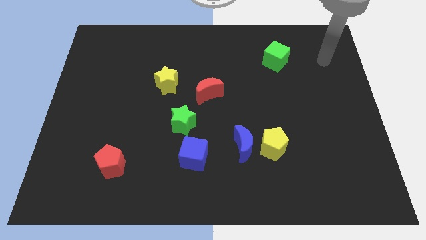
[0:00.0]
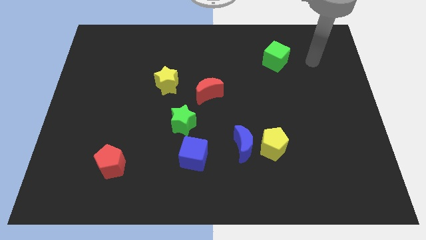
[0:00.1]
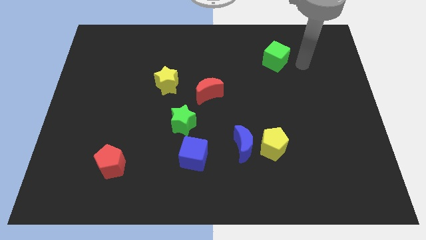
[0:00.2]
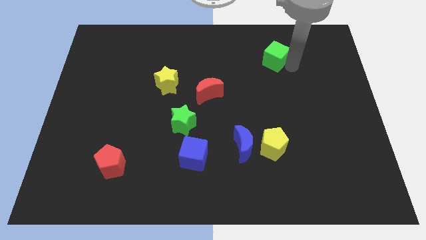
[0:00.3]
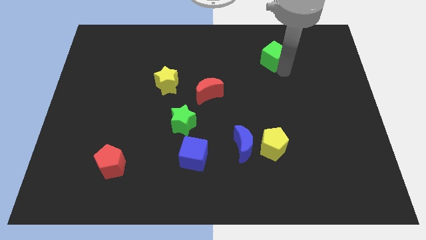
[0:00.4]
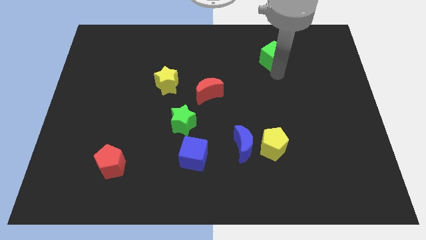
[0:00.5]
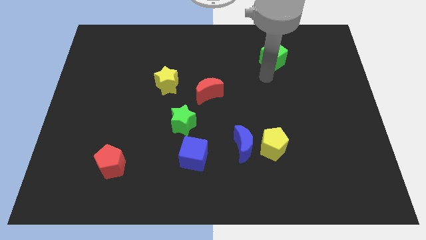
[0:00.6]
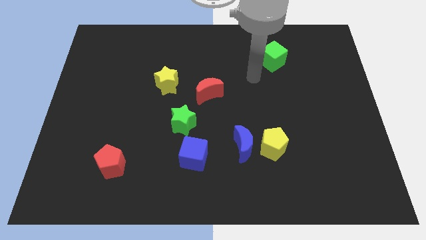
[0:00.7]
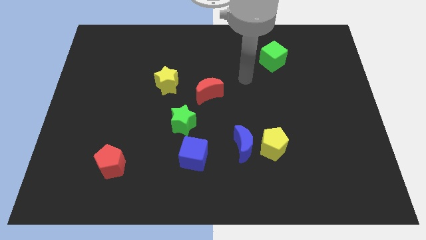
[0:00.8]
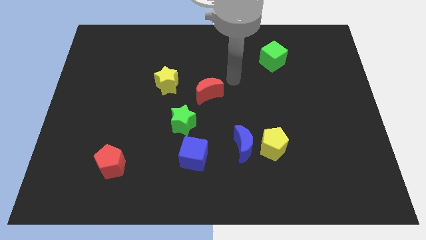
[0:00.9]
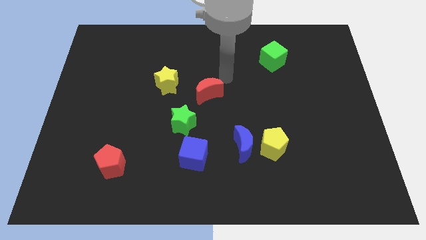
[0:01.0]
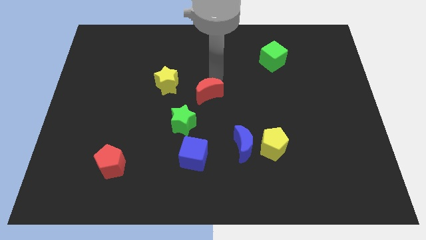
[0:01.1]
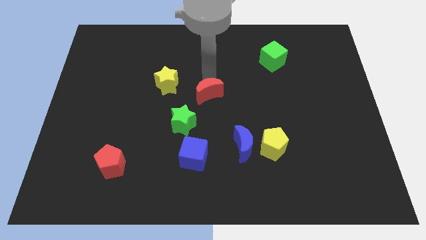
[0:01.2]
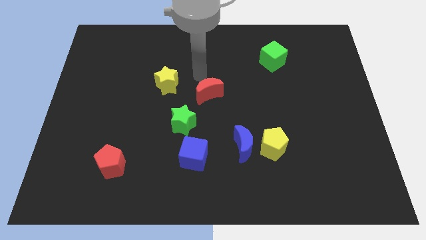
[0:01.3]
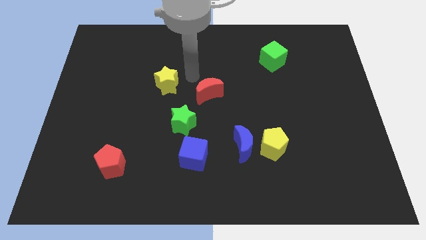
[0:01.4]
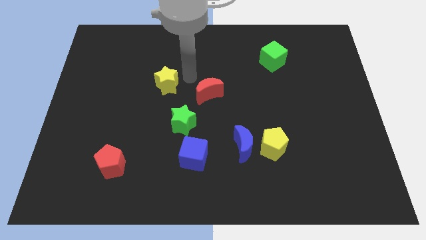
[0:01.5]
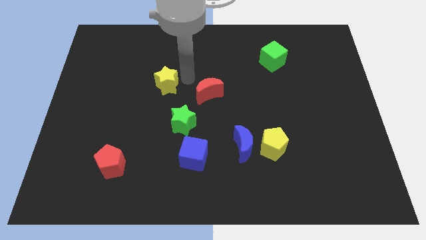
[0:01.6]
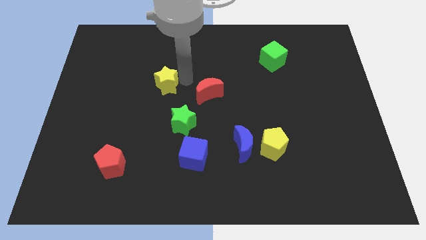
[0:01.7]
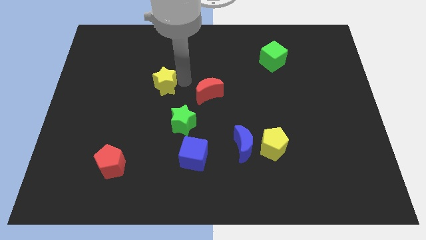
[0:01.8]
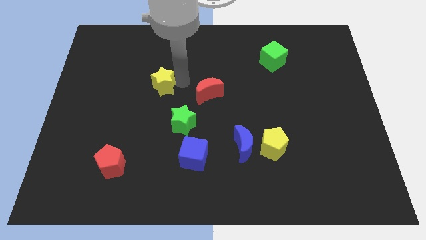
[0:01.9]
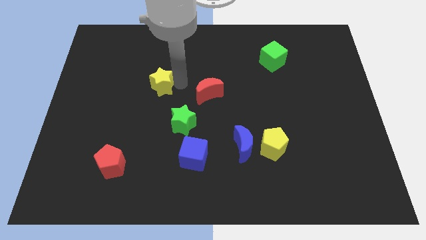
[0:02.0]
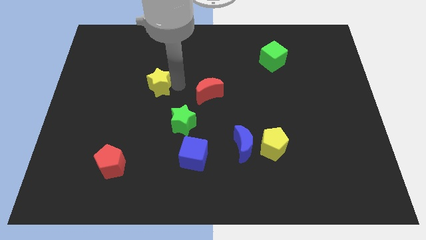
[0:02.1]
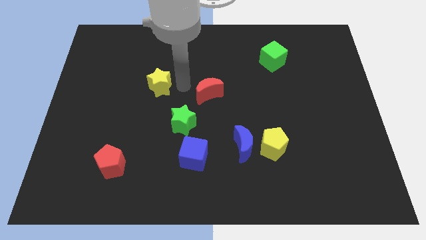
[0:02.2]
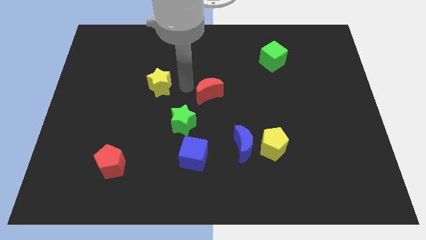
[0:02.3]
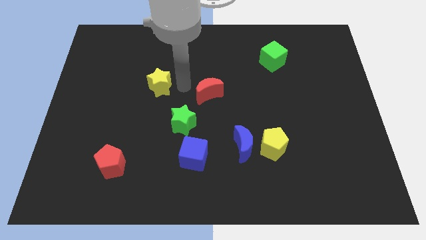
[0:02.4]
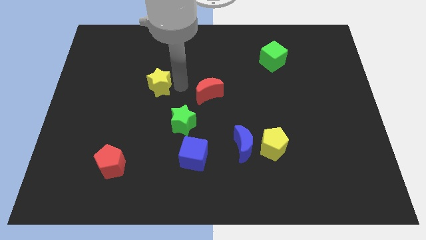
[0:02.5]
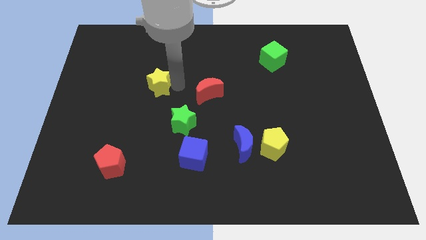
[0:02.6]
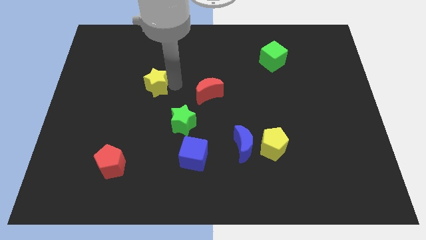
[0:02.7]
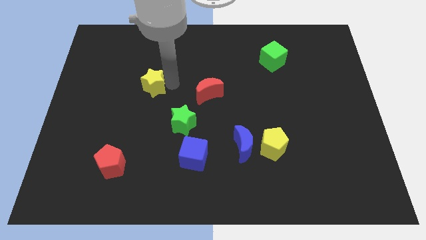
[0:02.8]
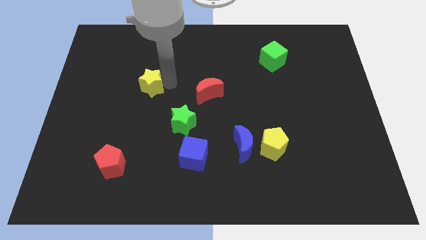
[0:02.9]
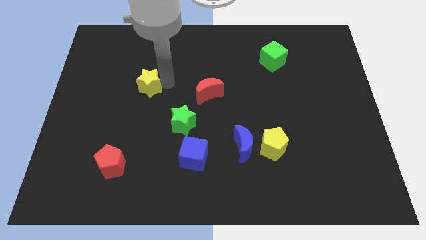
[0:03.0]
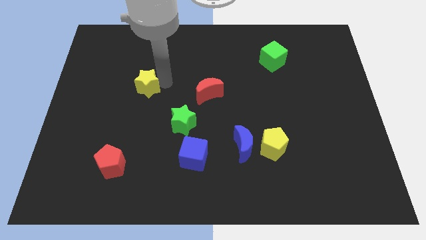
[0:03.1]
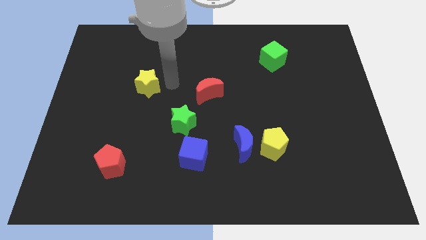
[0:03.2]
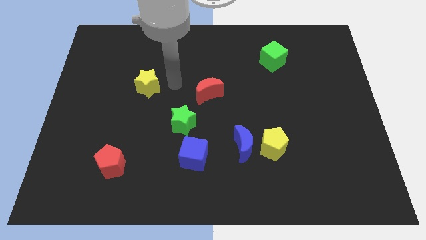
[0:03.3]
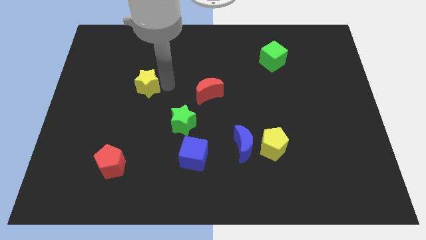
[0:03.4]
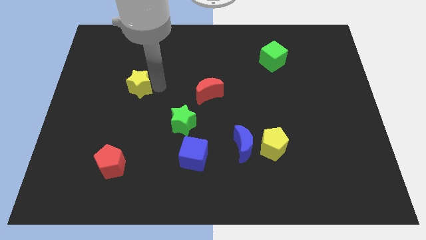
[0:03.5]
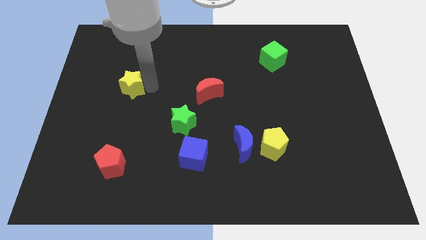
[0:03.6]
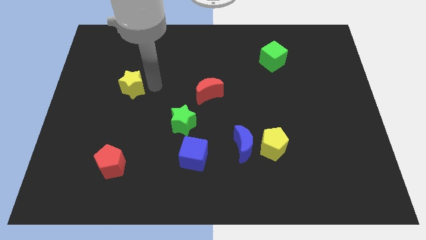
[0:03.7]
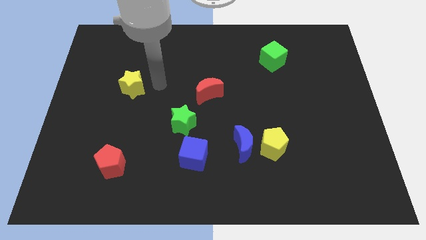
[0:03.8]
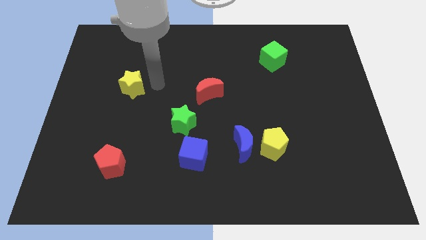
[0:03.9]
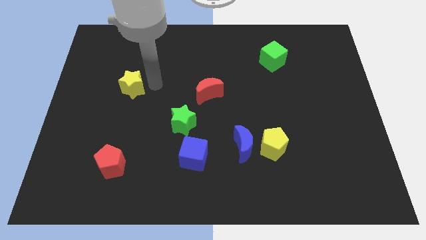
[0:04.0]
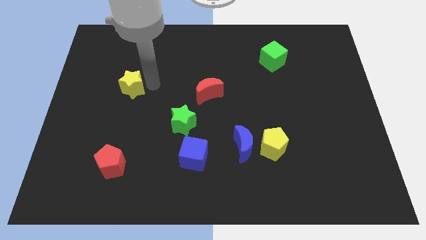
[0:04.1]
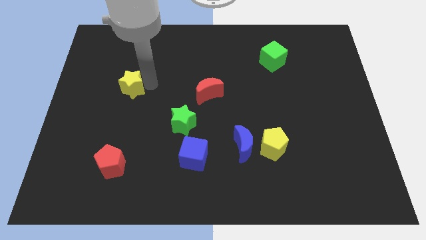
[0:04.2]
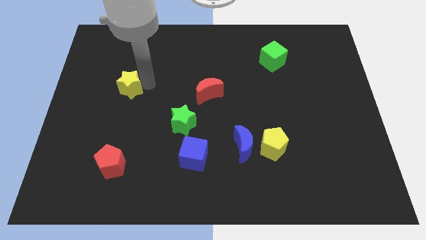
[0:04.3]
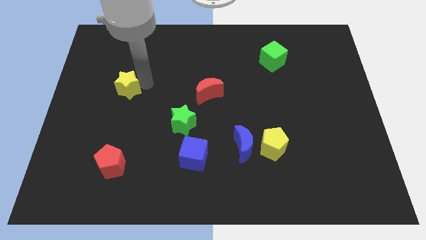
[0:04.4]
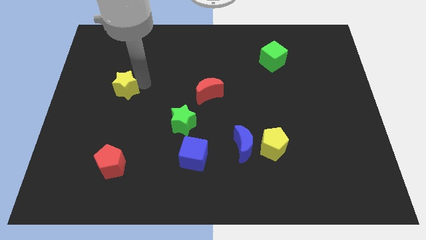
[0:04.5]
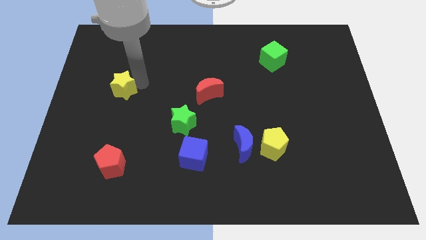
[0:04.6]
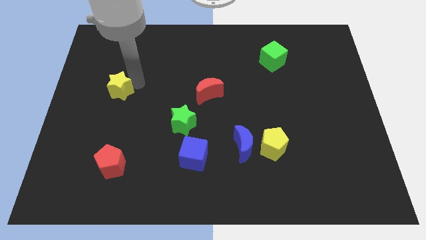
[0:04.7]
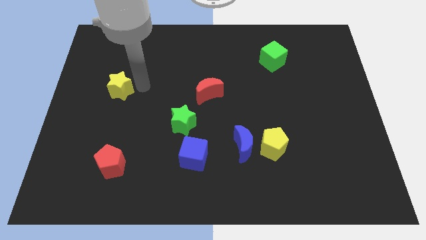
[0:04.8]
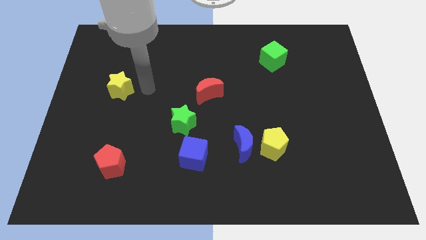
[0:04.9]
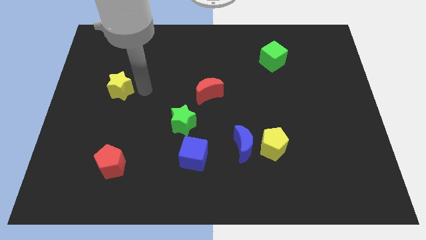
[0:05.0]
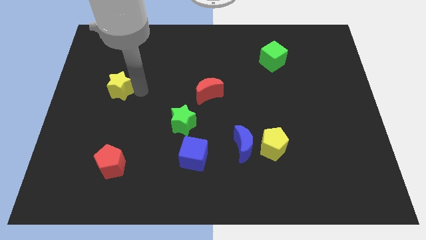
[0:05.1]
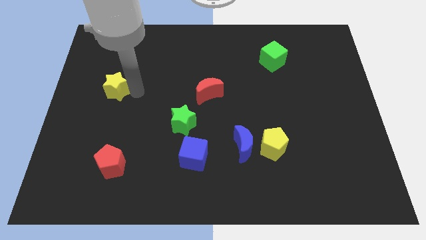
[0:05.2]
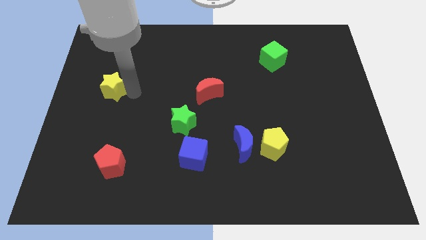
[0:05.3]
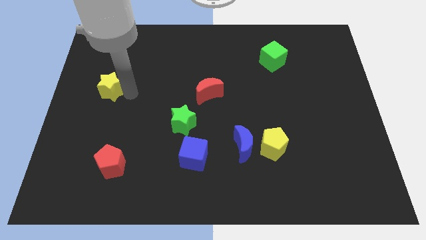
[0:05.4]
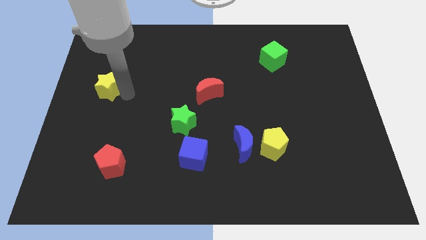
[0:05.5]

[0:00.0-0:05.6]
slide the yellow star to the left side
